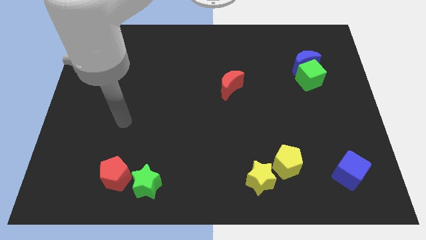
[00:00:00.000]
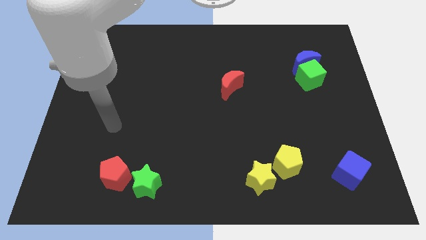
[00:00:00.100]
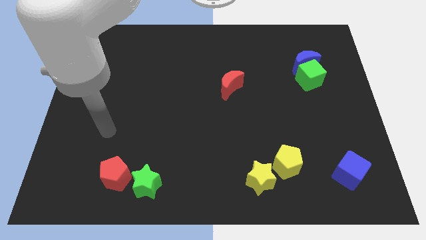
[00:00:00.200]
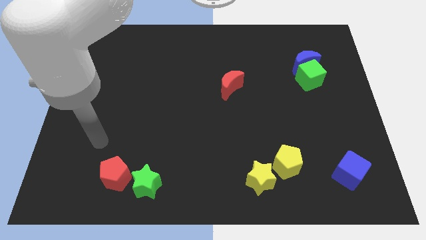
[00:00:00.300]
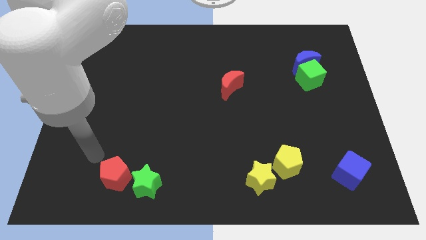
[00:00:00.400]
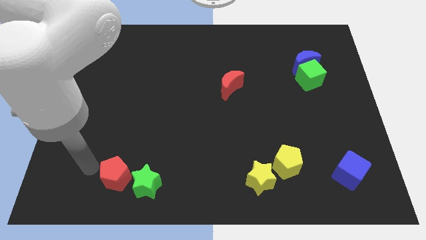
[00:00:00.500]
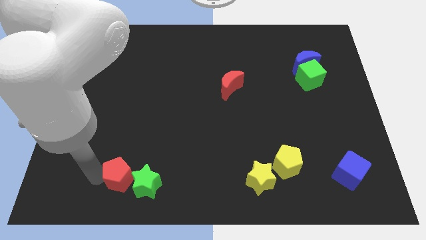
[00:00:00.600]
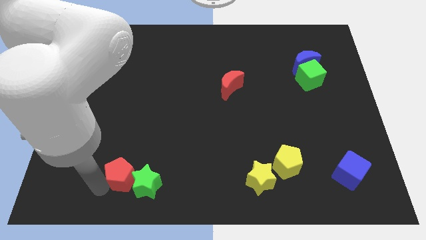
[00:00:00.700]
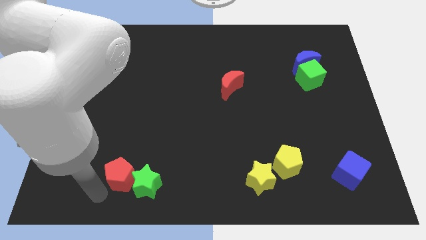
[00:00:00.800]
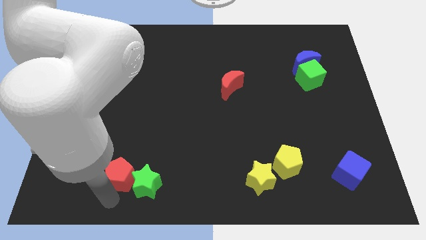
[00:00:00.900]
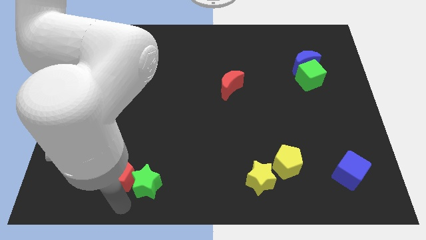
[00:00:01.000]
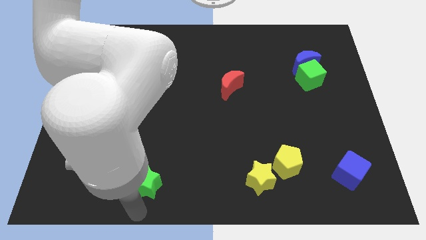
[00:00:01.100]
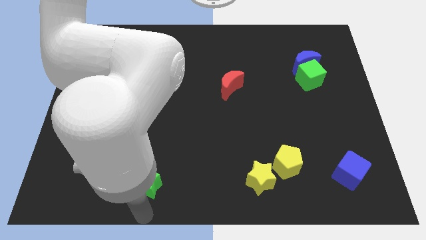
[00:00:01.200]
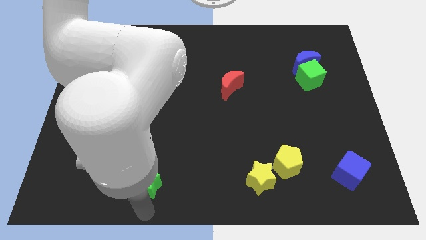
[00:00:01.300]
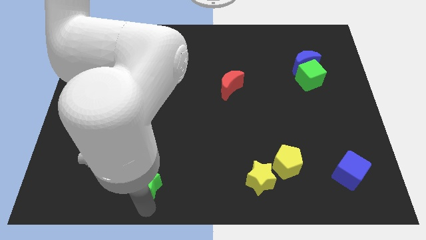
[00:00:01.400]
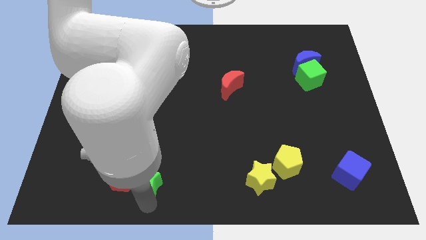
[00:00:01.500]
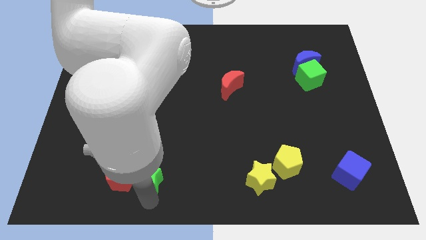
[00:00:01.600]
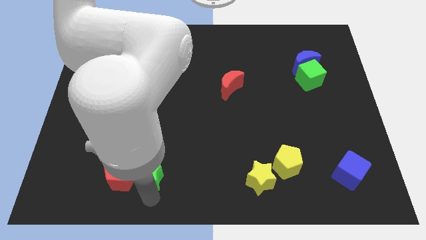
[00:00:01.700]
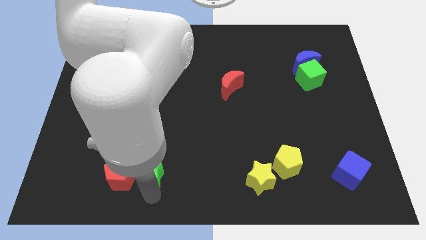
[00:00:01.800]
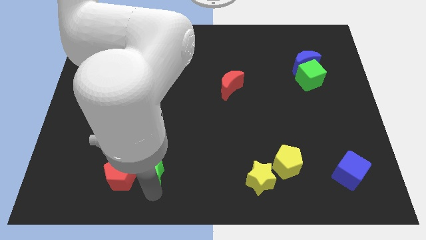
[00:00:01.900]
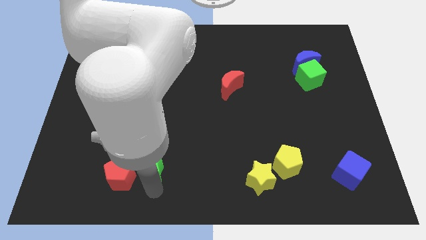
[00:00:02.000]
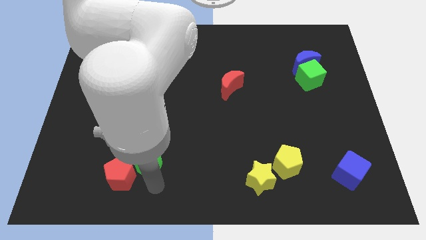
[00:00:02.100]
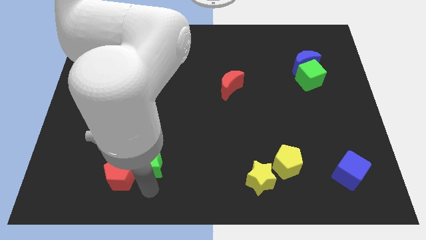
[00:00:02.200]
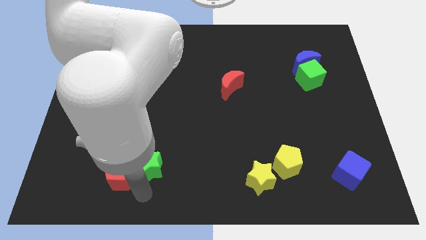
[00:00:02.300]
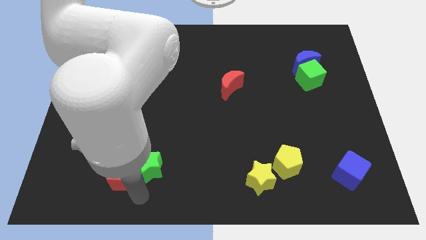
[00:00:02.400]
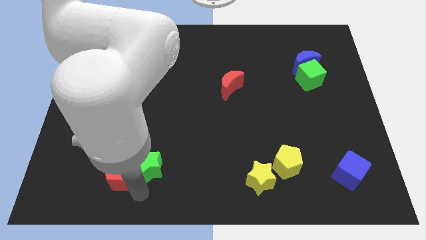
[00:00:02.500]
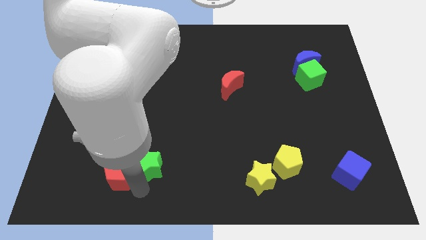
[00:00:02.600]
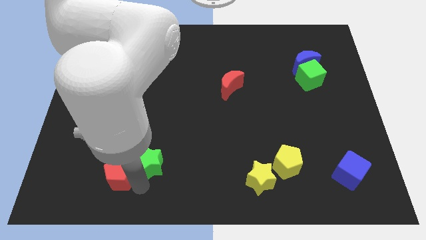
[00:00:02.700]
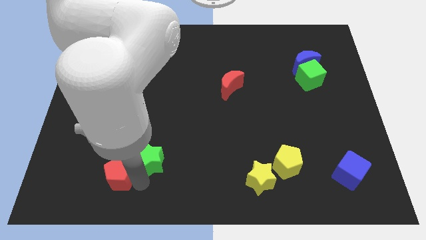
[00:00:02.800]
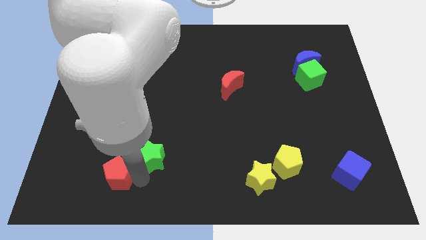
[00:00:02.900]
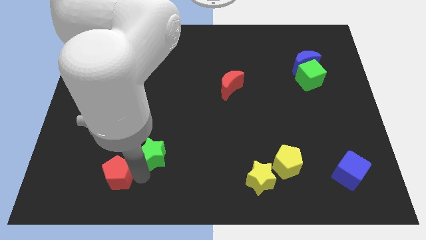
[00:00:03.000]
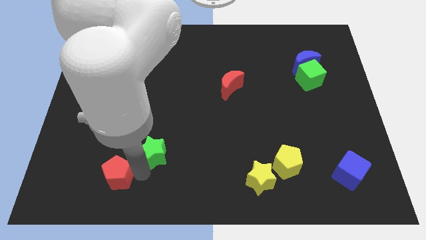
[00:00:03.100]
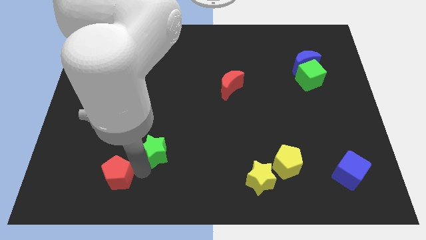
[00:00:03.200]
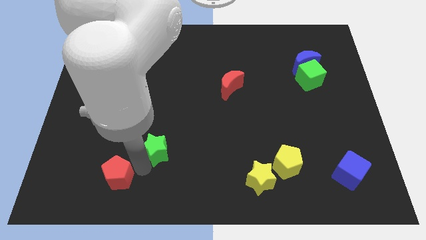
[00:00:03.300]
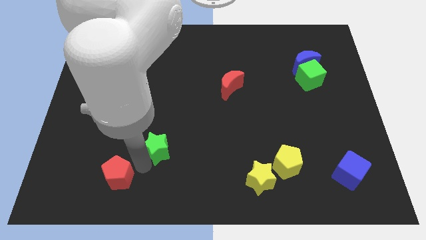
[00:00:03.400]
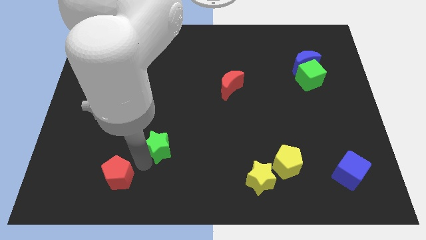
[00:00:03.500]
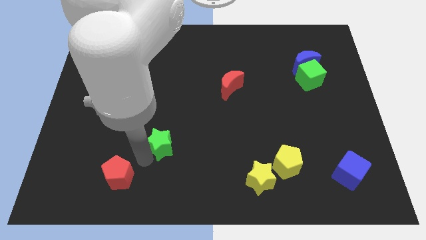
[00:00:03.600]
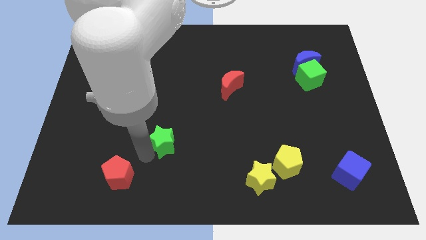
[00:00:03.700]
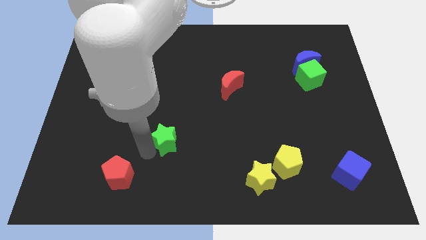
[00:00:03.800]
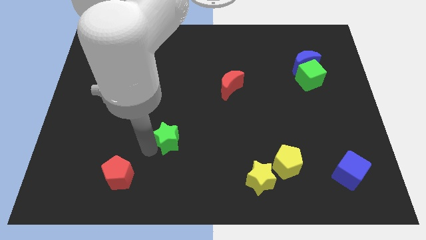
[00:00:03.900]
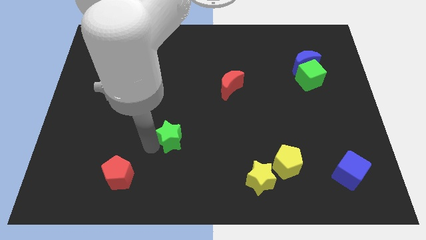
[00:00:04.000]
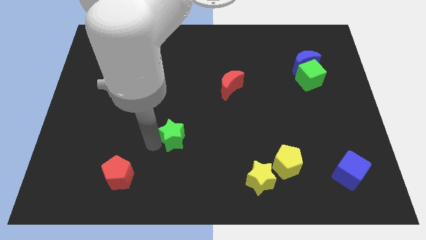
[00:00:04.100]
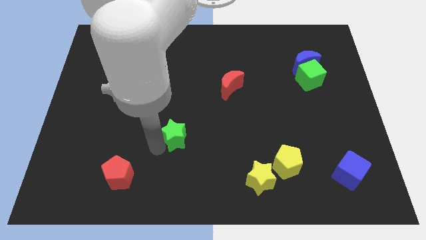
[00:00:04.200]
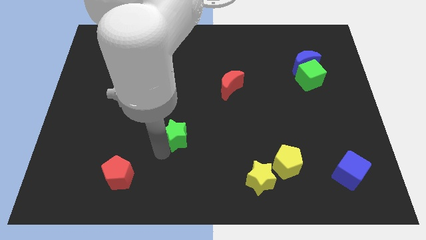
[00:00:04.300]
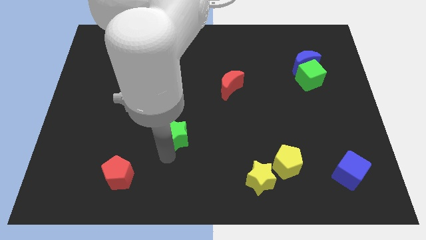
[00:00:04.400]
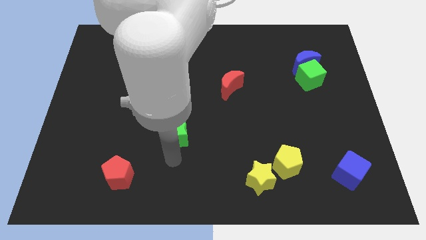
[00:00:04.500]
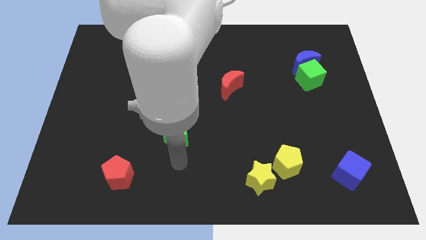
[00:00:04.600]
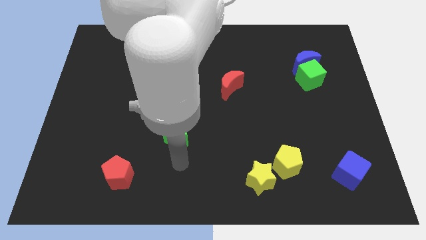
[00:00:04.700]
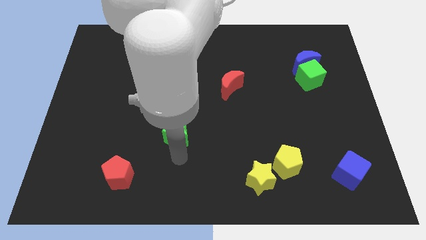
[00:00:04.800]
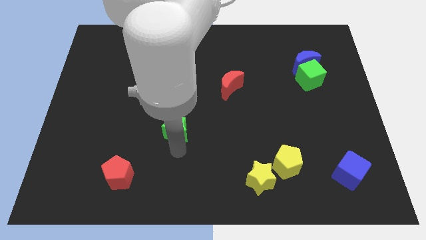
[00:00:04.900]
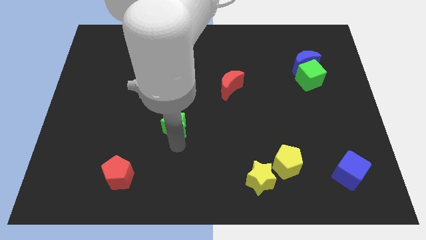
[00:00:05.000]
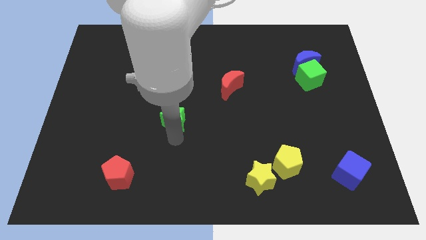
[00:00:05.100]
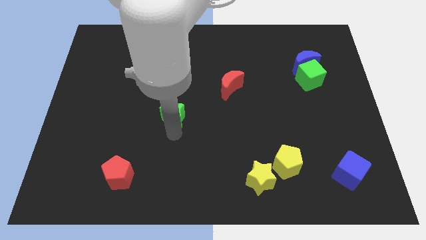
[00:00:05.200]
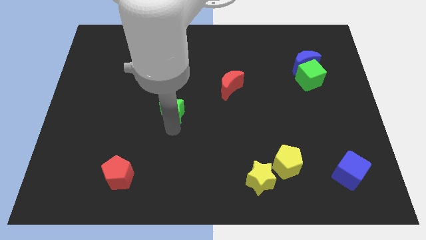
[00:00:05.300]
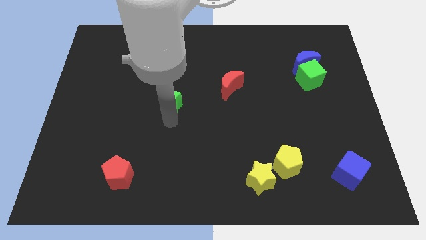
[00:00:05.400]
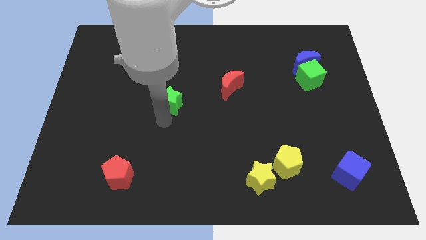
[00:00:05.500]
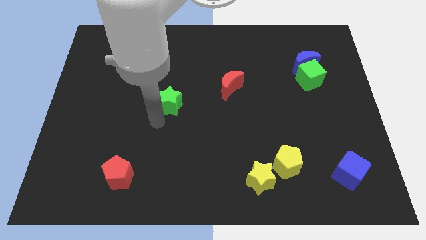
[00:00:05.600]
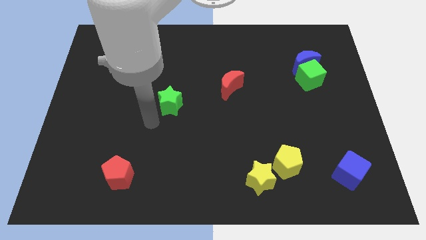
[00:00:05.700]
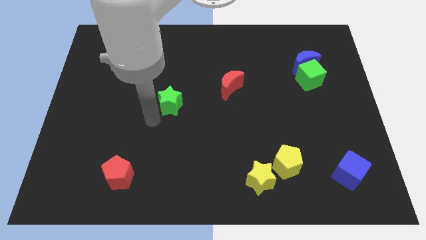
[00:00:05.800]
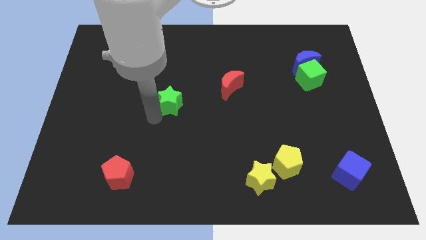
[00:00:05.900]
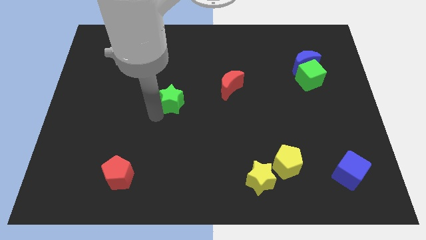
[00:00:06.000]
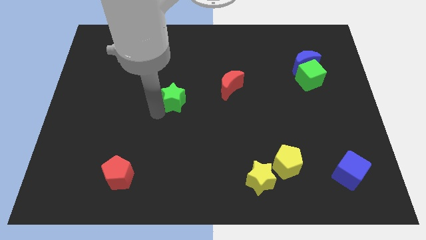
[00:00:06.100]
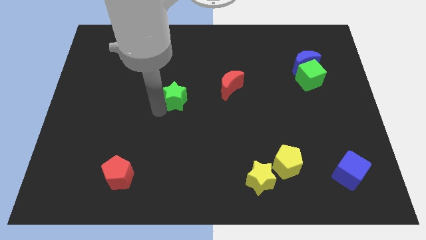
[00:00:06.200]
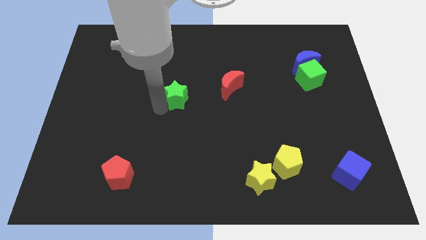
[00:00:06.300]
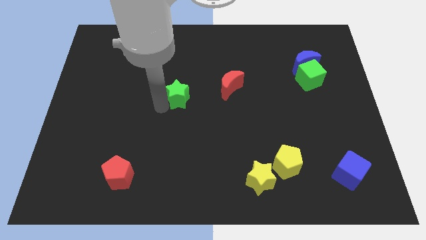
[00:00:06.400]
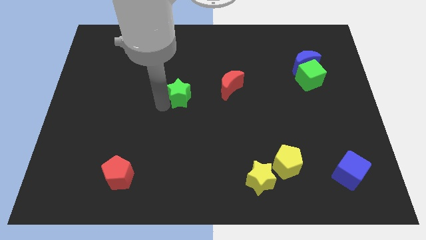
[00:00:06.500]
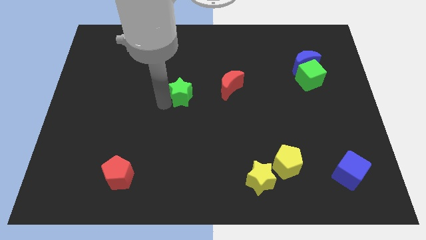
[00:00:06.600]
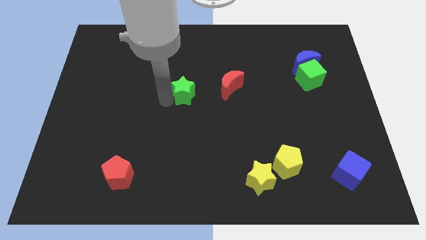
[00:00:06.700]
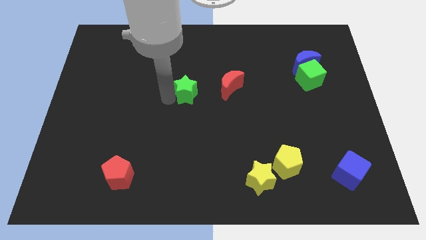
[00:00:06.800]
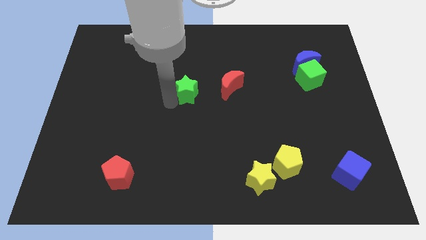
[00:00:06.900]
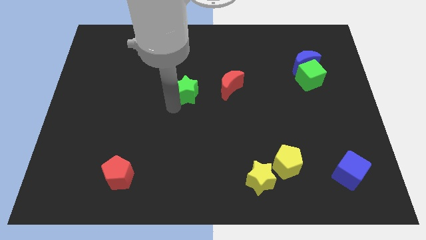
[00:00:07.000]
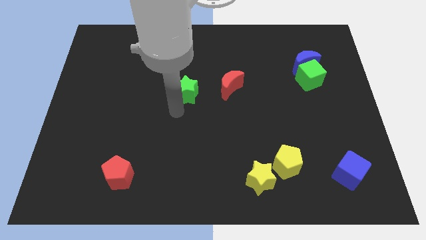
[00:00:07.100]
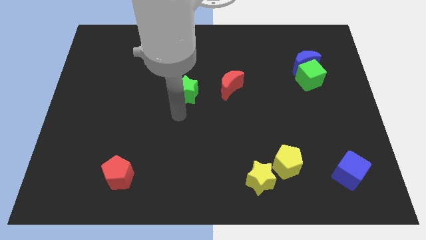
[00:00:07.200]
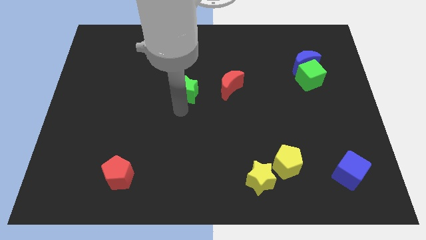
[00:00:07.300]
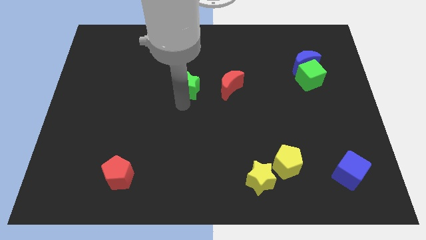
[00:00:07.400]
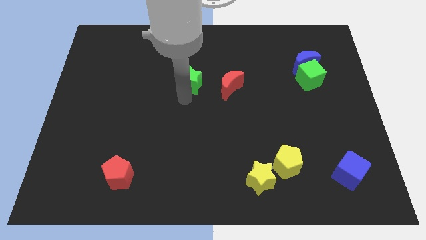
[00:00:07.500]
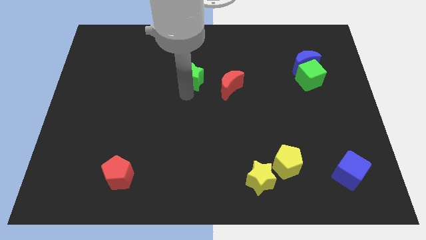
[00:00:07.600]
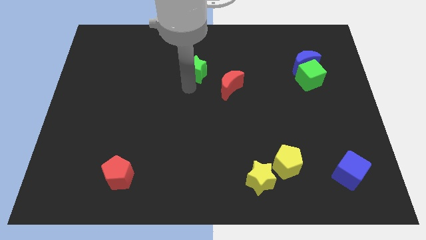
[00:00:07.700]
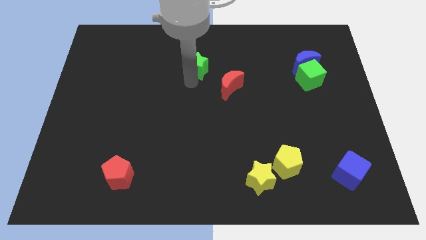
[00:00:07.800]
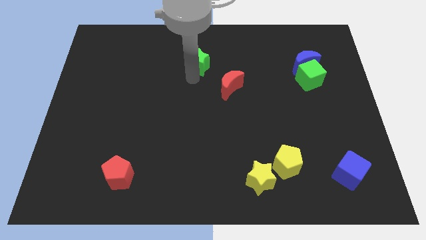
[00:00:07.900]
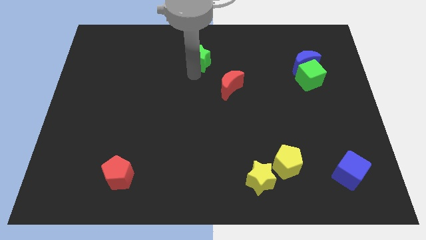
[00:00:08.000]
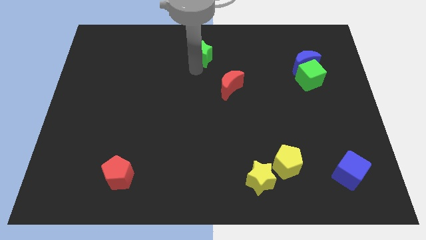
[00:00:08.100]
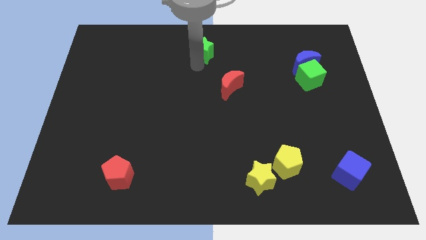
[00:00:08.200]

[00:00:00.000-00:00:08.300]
push the green star to the top
